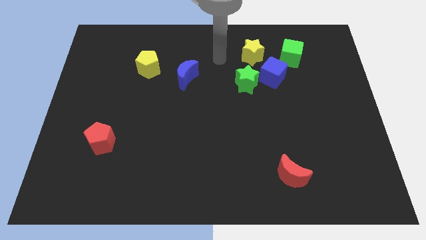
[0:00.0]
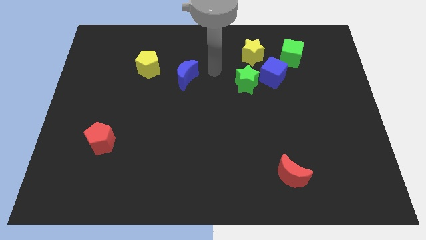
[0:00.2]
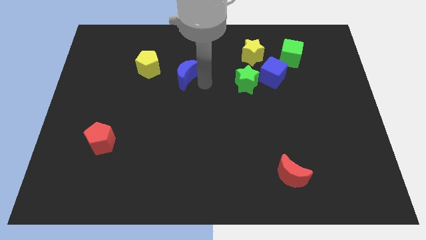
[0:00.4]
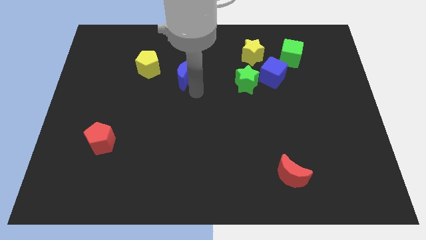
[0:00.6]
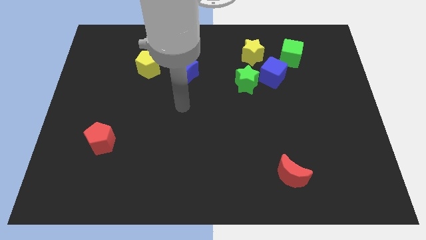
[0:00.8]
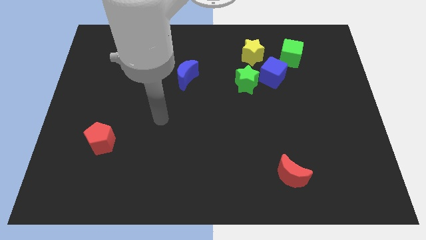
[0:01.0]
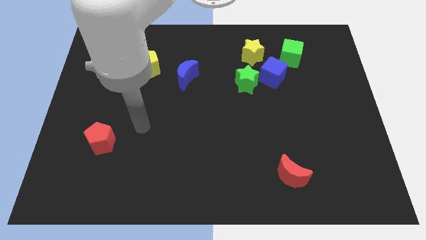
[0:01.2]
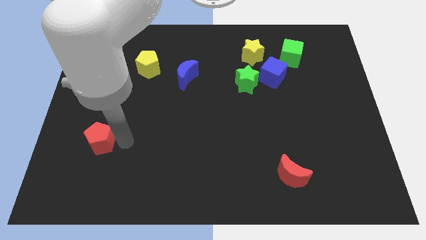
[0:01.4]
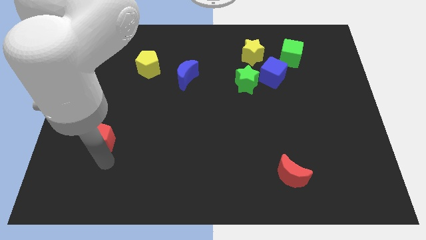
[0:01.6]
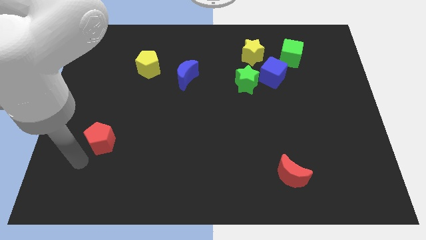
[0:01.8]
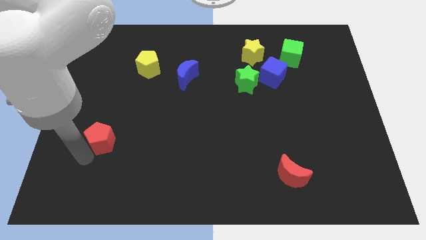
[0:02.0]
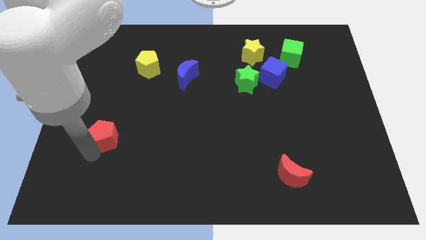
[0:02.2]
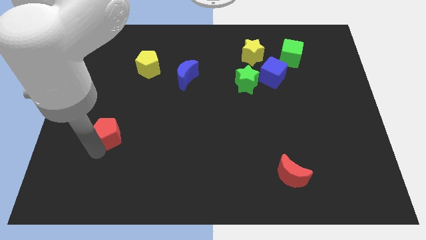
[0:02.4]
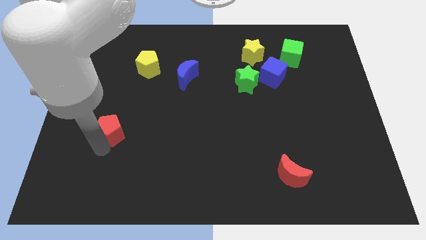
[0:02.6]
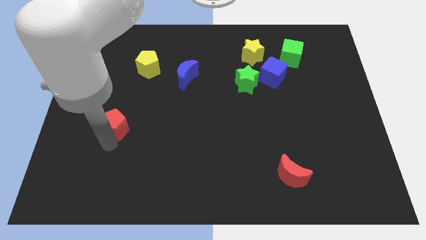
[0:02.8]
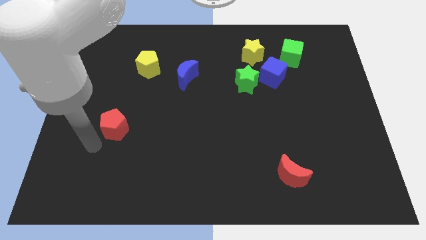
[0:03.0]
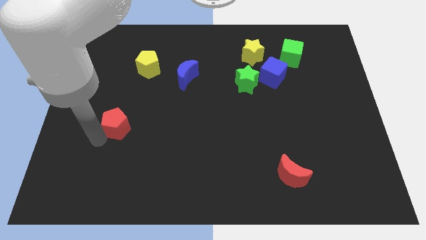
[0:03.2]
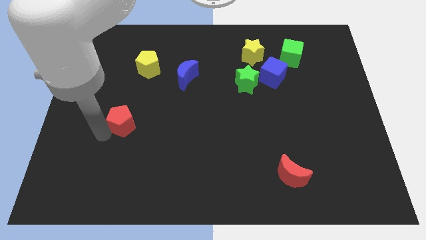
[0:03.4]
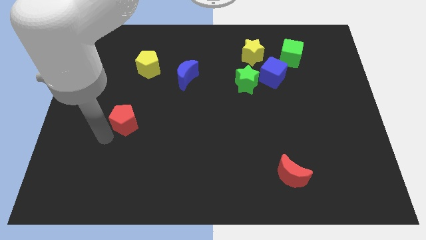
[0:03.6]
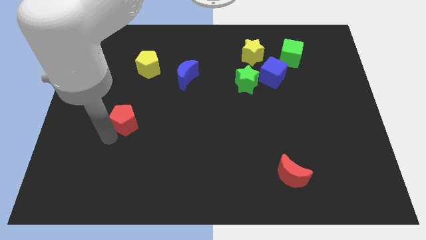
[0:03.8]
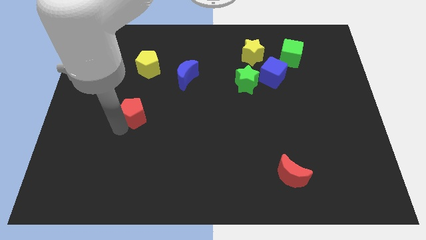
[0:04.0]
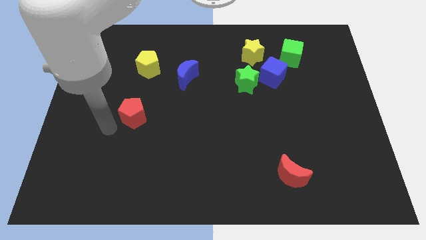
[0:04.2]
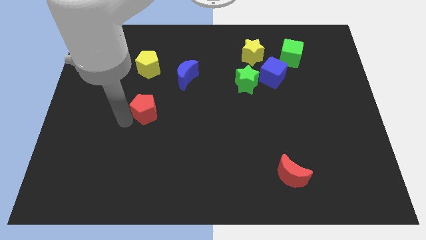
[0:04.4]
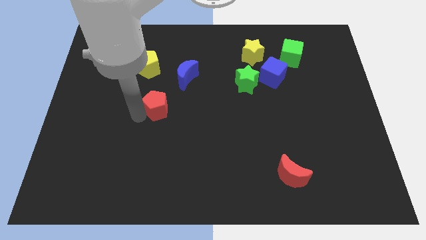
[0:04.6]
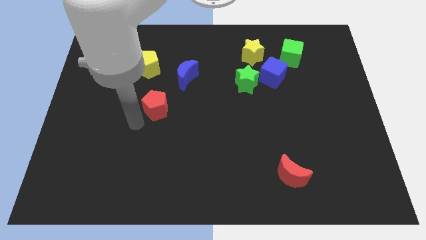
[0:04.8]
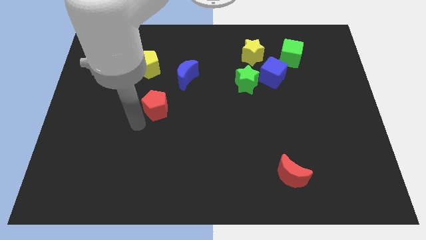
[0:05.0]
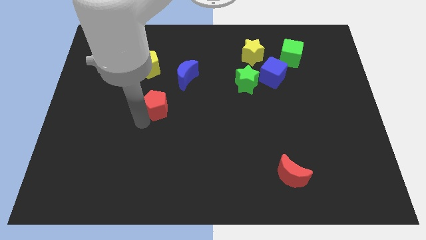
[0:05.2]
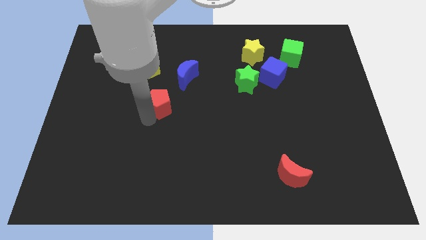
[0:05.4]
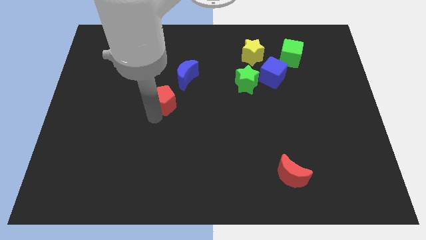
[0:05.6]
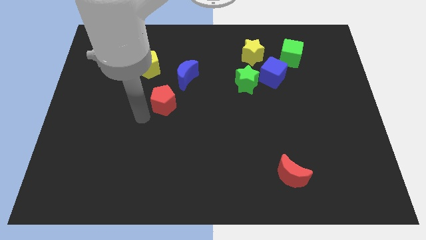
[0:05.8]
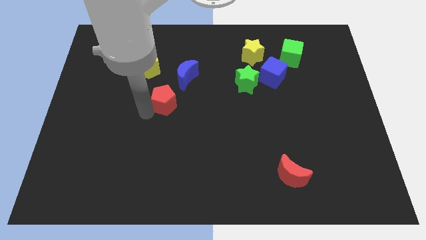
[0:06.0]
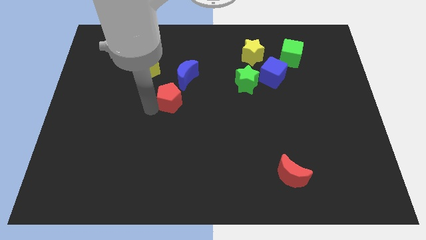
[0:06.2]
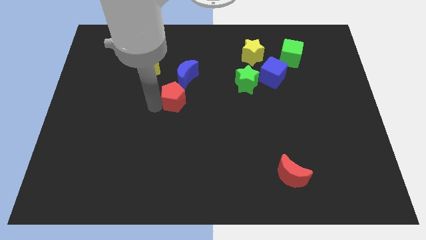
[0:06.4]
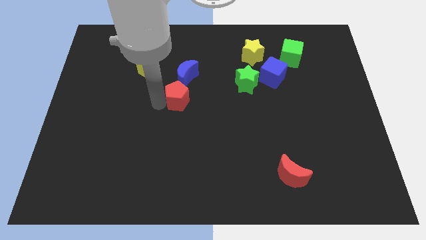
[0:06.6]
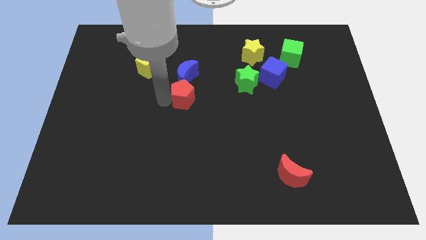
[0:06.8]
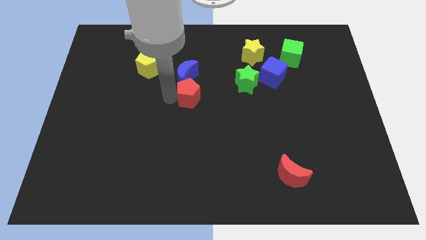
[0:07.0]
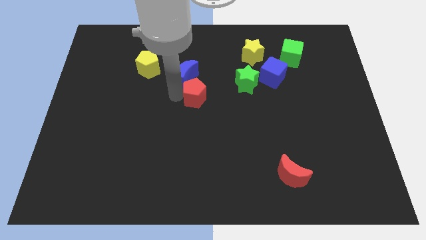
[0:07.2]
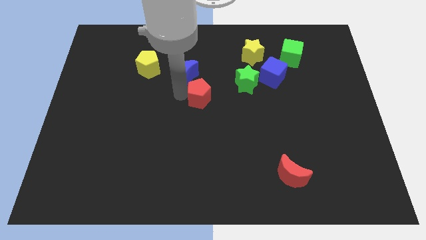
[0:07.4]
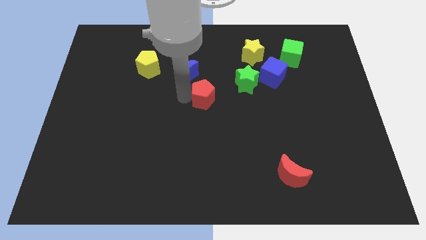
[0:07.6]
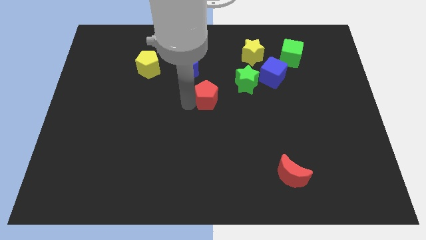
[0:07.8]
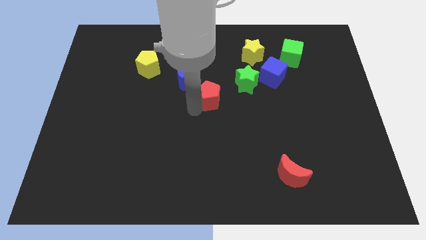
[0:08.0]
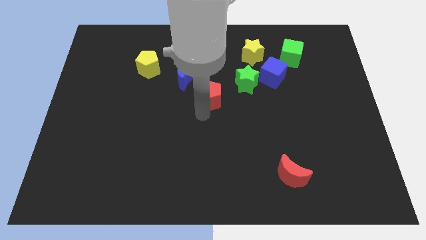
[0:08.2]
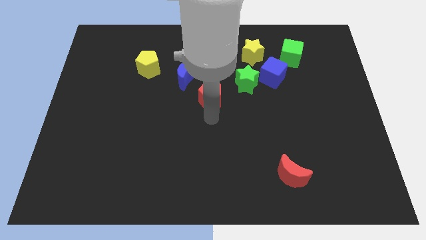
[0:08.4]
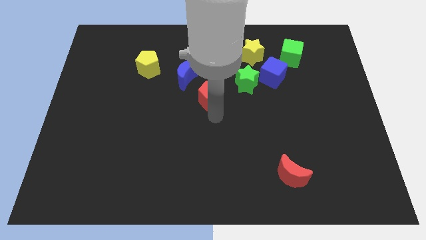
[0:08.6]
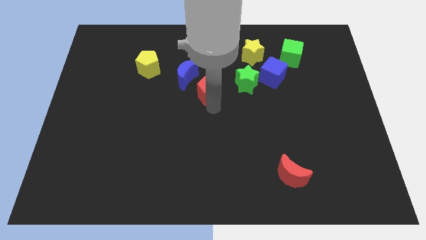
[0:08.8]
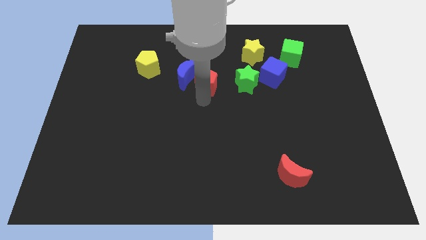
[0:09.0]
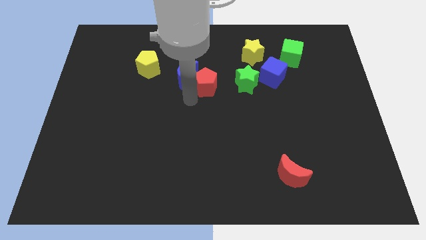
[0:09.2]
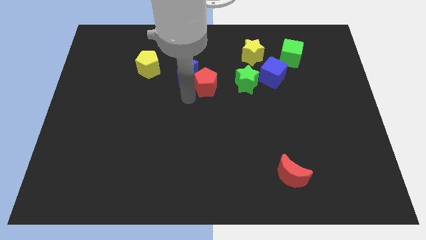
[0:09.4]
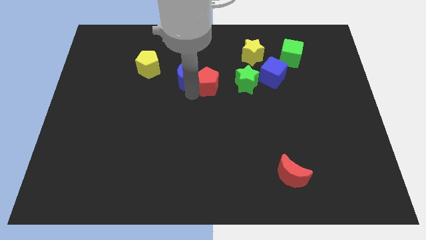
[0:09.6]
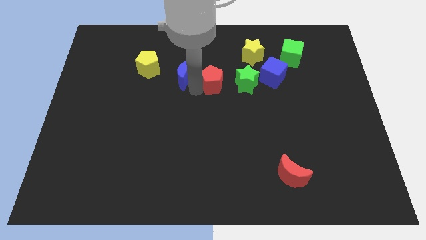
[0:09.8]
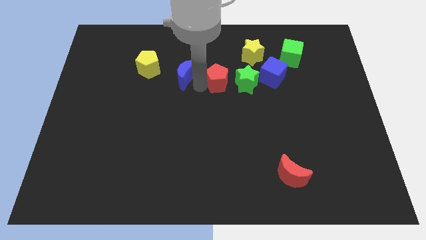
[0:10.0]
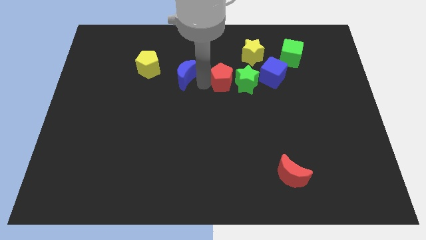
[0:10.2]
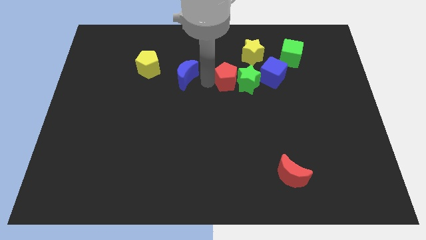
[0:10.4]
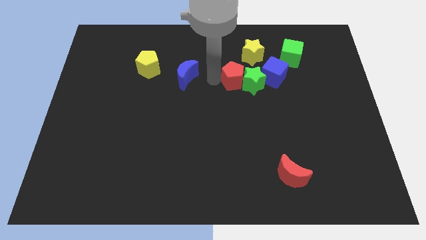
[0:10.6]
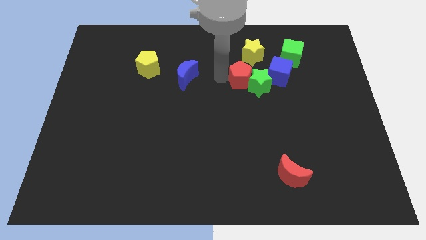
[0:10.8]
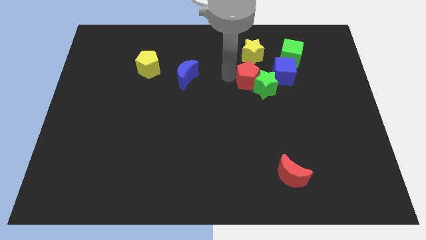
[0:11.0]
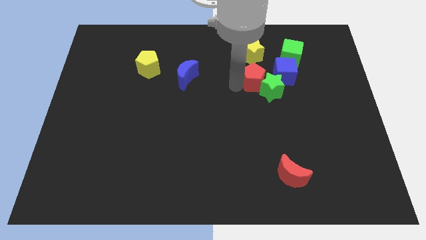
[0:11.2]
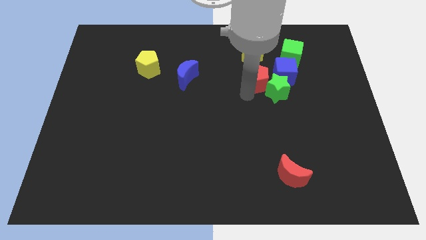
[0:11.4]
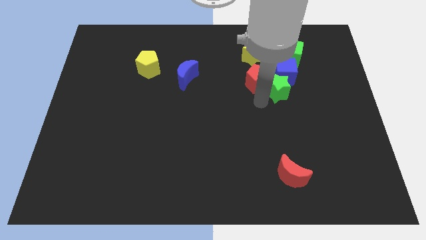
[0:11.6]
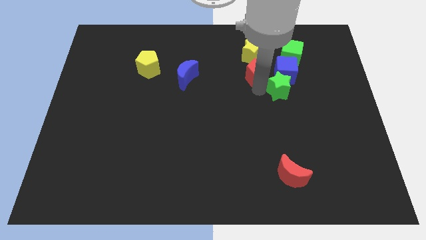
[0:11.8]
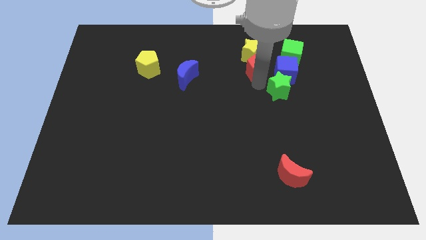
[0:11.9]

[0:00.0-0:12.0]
put the red pentagon next to the yellow star
